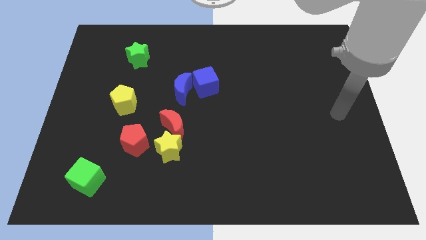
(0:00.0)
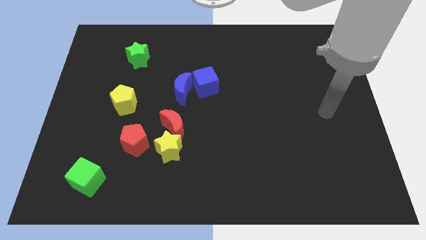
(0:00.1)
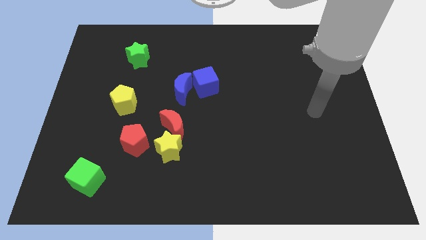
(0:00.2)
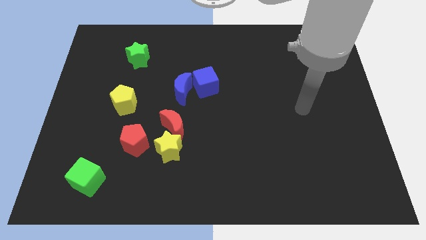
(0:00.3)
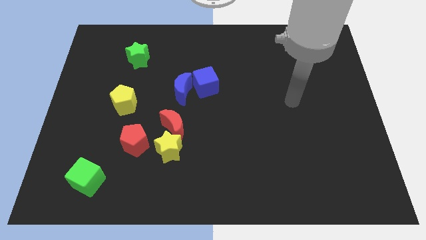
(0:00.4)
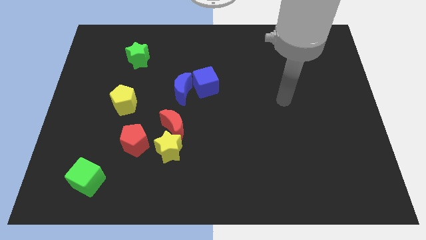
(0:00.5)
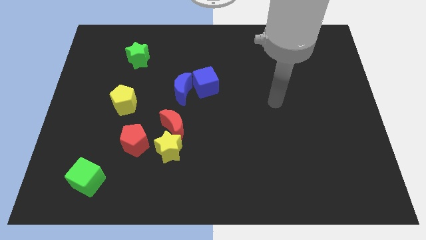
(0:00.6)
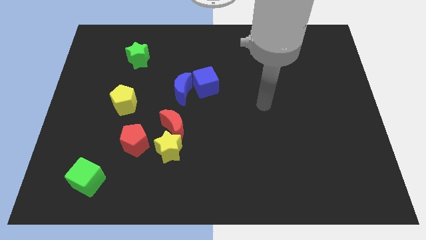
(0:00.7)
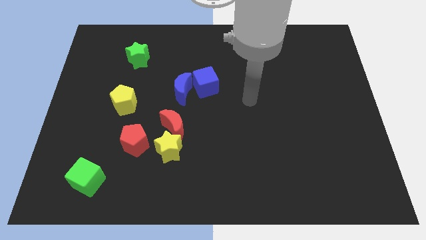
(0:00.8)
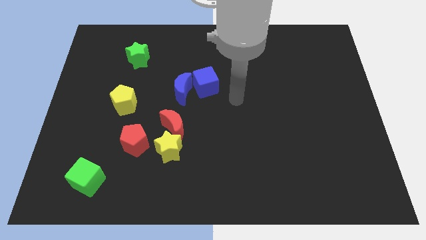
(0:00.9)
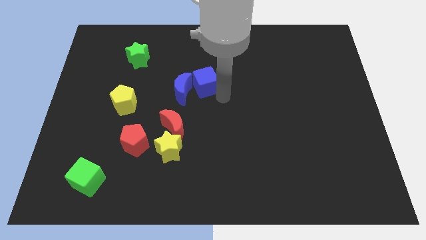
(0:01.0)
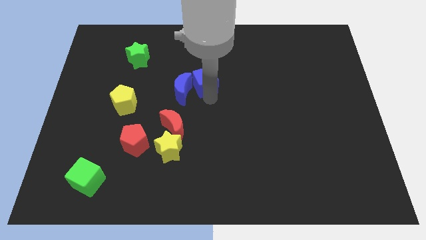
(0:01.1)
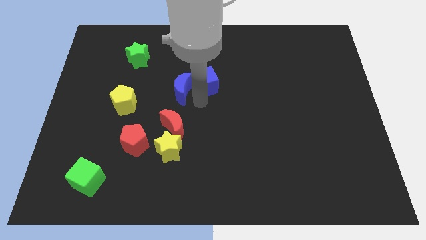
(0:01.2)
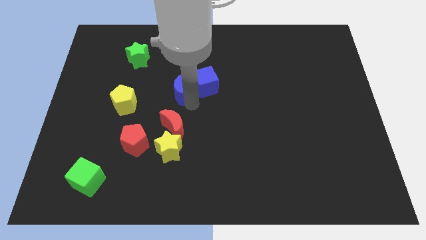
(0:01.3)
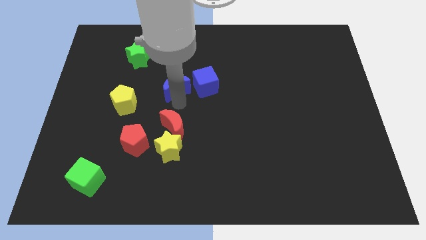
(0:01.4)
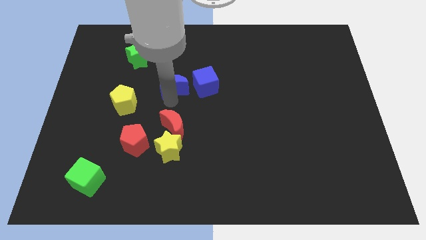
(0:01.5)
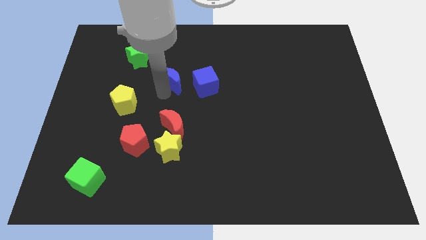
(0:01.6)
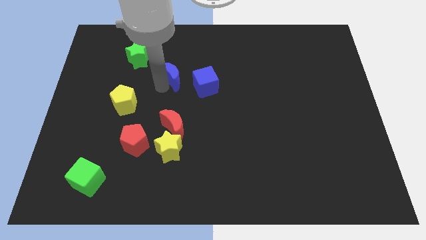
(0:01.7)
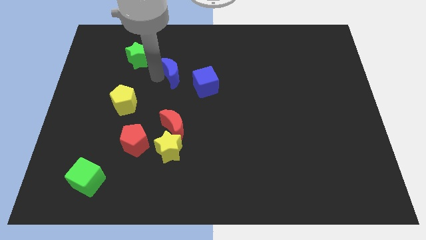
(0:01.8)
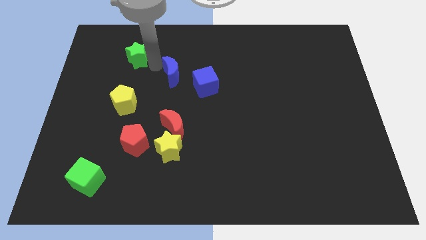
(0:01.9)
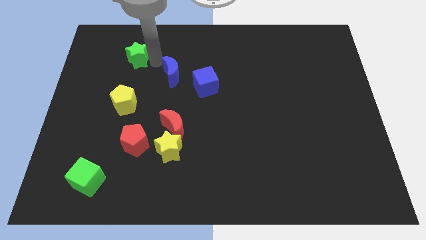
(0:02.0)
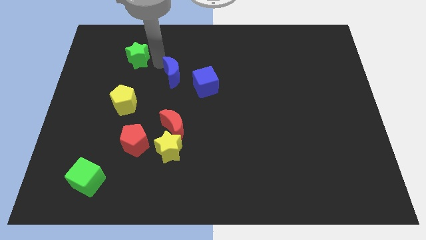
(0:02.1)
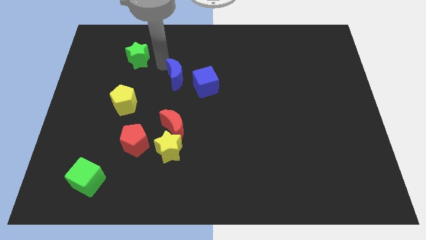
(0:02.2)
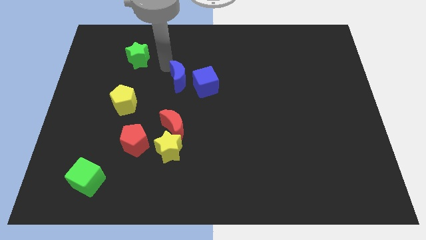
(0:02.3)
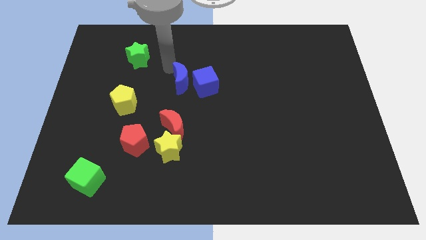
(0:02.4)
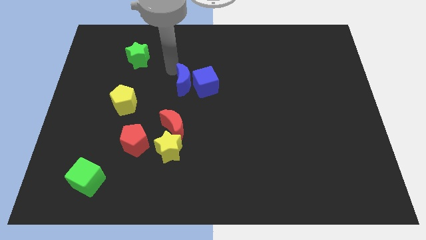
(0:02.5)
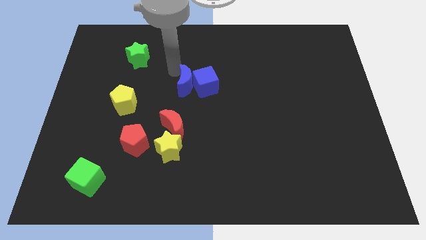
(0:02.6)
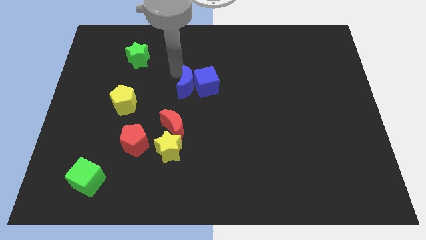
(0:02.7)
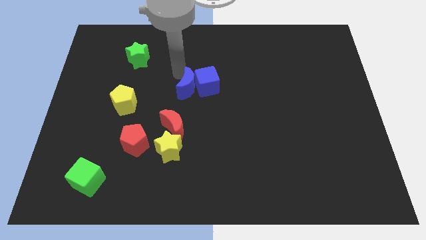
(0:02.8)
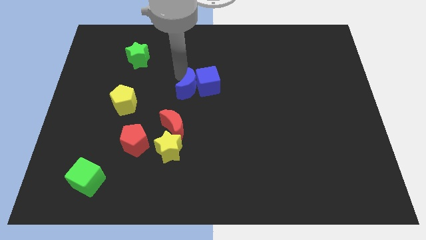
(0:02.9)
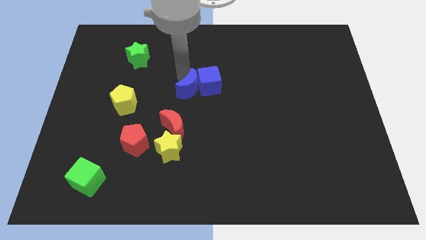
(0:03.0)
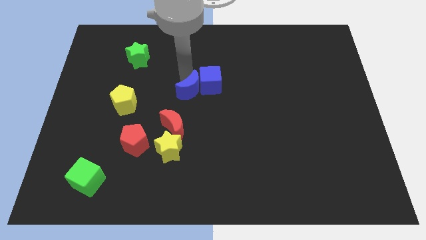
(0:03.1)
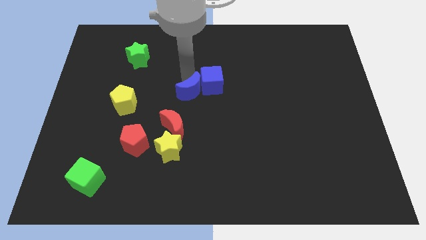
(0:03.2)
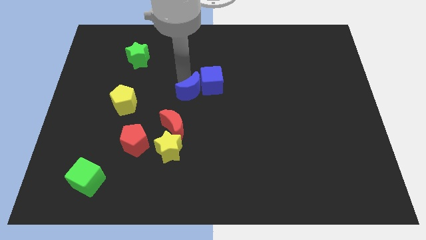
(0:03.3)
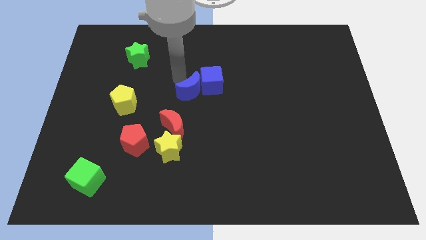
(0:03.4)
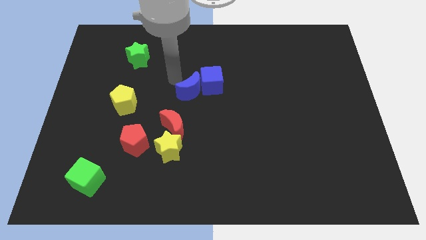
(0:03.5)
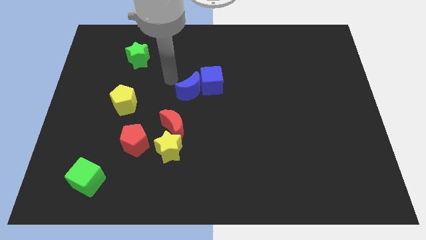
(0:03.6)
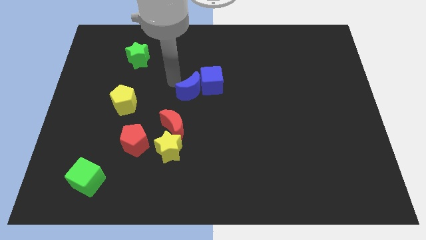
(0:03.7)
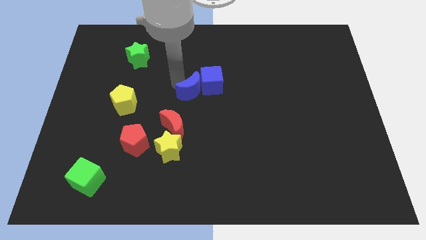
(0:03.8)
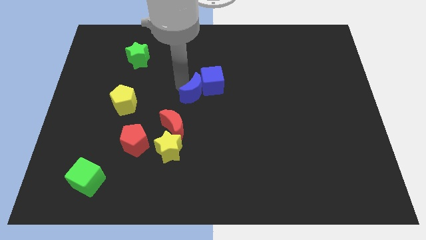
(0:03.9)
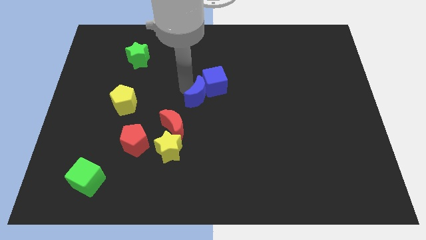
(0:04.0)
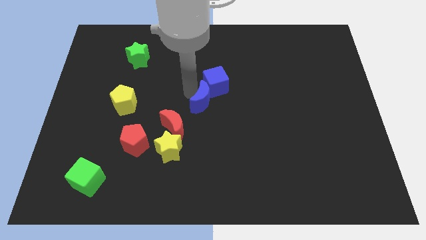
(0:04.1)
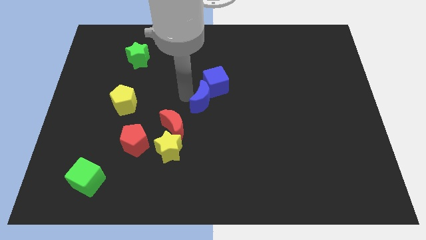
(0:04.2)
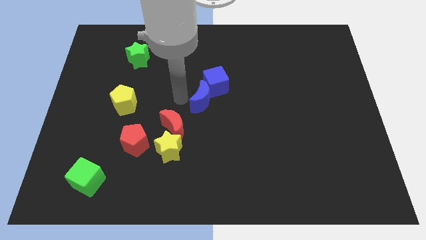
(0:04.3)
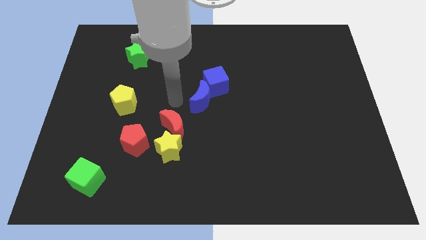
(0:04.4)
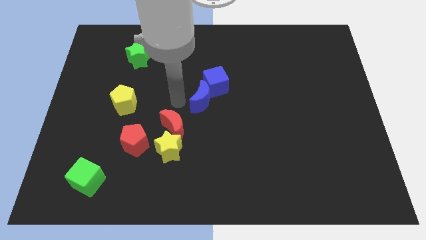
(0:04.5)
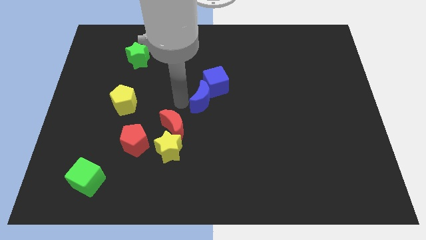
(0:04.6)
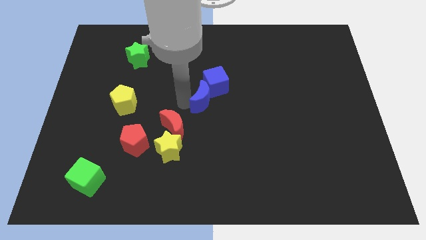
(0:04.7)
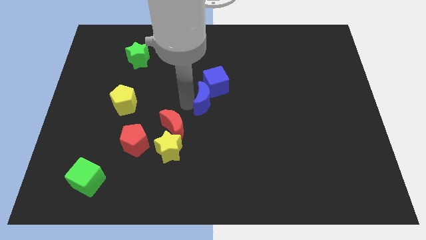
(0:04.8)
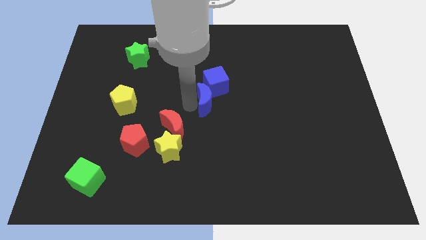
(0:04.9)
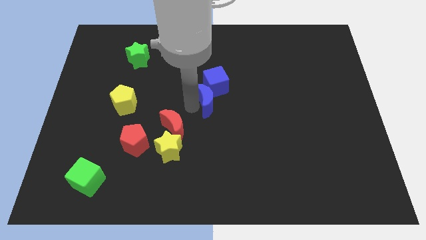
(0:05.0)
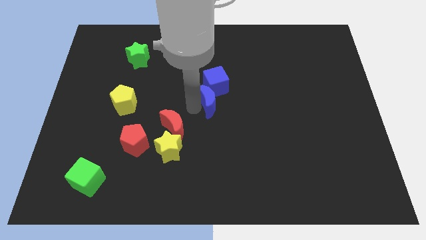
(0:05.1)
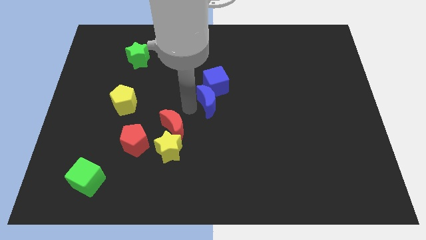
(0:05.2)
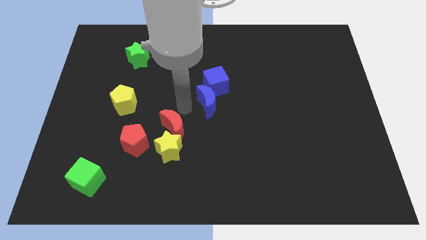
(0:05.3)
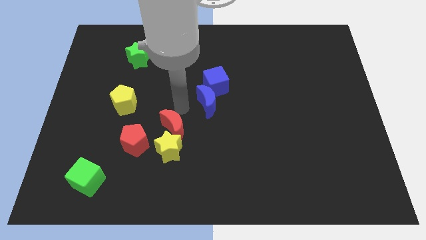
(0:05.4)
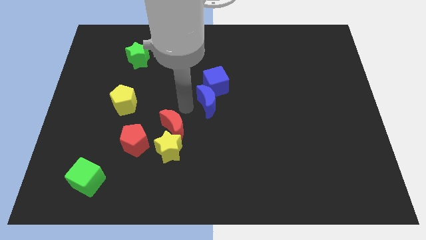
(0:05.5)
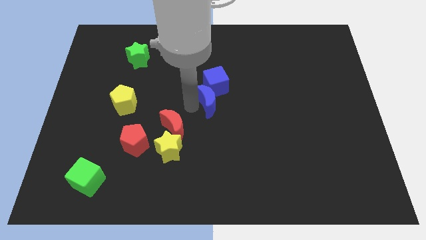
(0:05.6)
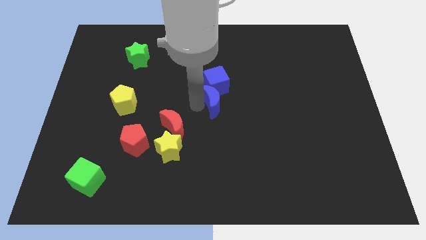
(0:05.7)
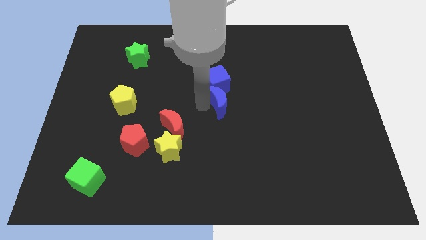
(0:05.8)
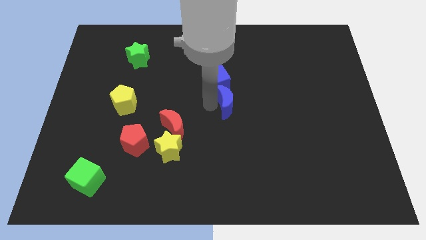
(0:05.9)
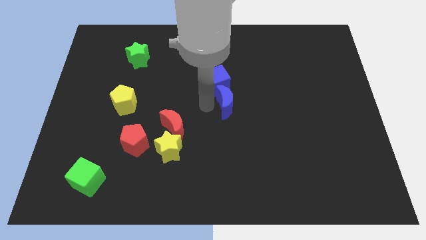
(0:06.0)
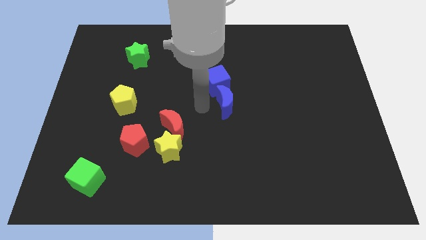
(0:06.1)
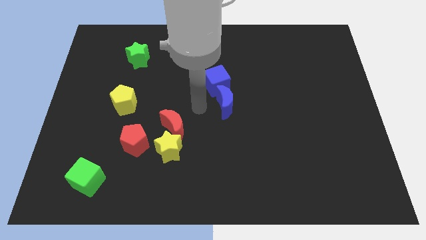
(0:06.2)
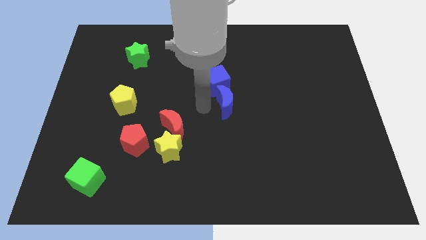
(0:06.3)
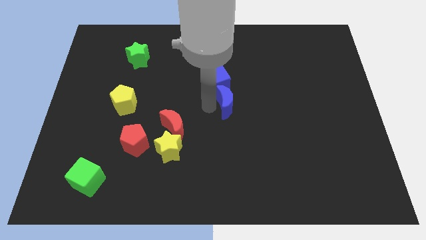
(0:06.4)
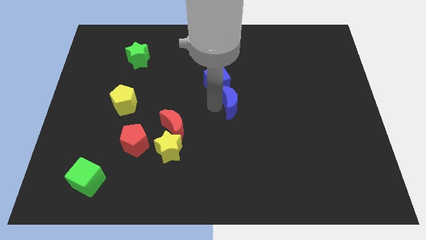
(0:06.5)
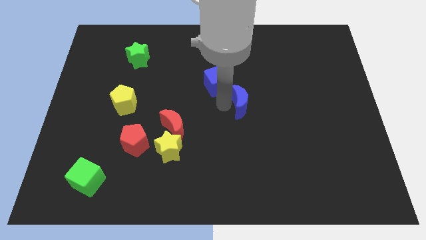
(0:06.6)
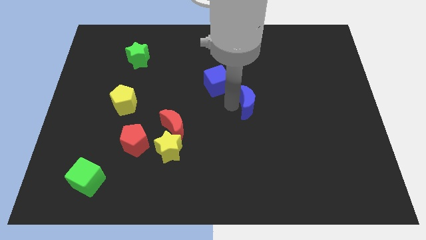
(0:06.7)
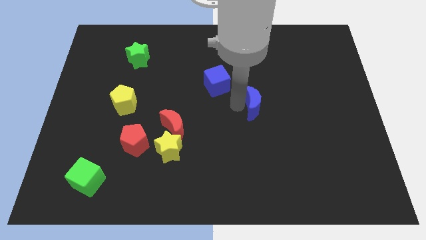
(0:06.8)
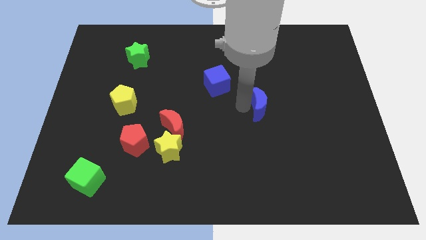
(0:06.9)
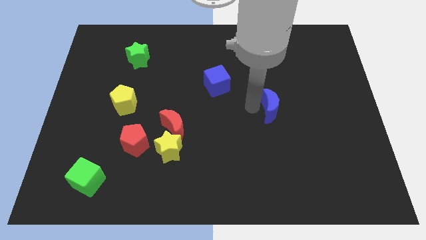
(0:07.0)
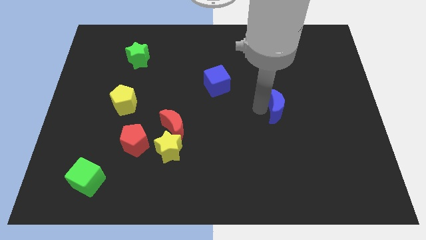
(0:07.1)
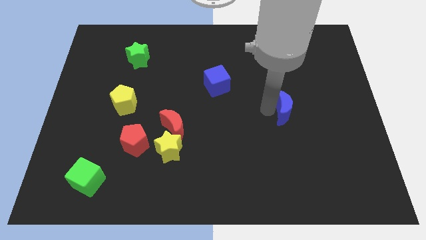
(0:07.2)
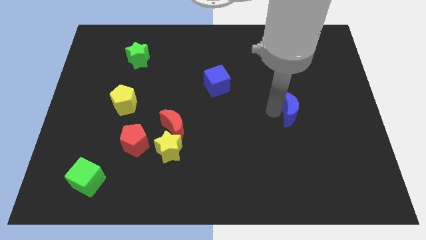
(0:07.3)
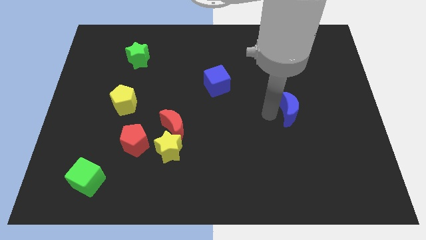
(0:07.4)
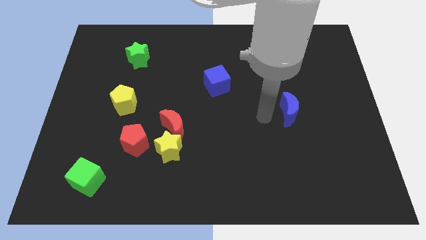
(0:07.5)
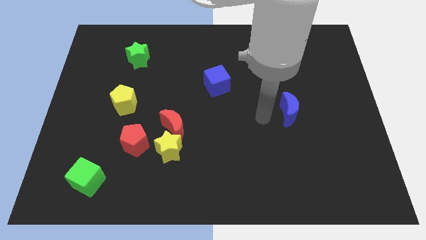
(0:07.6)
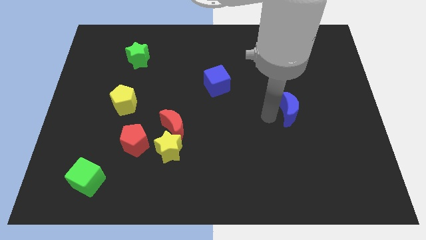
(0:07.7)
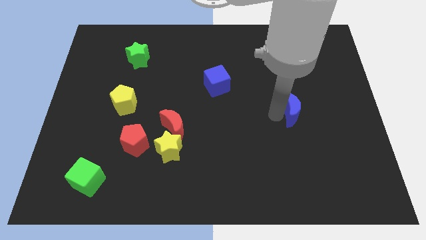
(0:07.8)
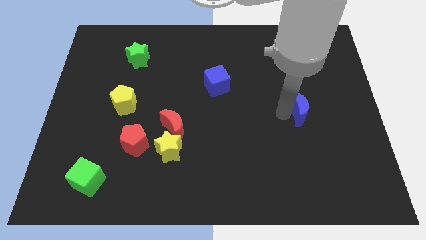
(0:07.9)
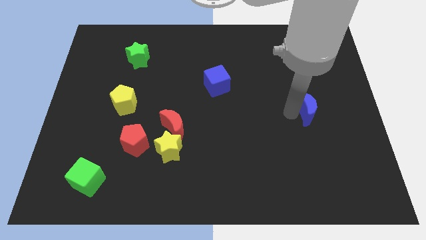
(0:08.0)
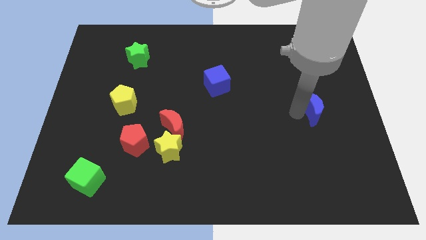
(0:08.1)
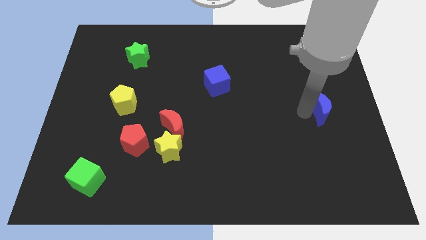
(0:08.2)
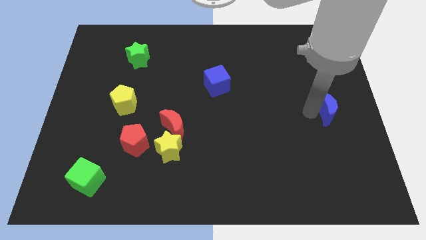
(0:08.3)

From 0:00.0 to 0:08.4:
put the blue moon to the right side of the board
